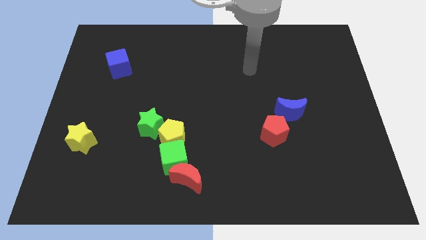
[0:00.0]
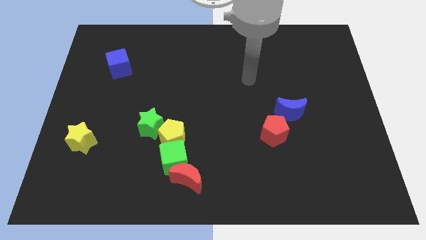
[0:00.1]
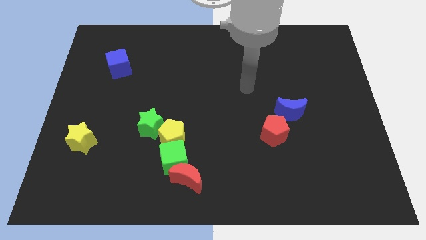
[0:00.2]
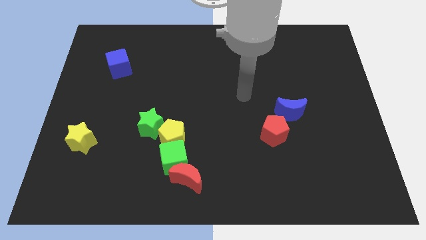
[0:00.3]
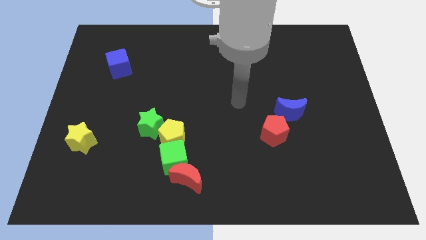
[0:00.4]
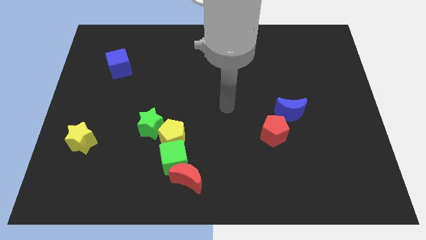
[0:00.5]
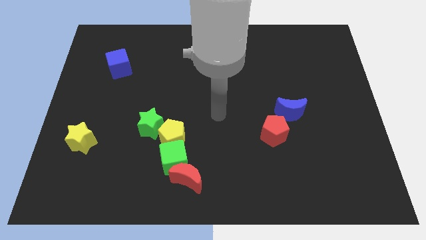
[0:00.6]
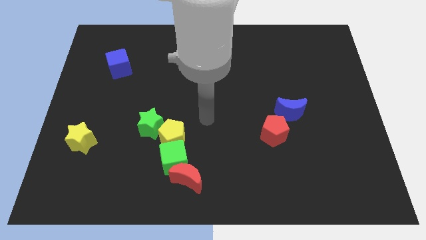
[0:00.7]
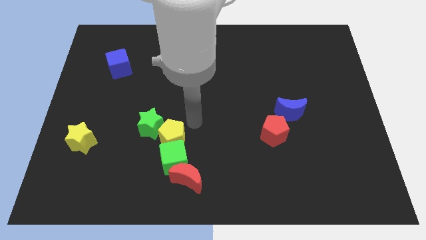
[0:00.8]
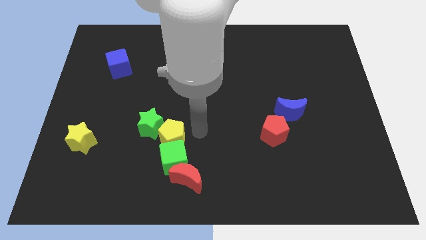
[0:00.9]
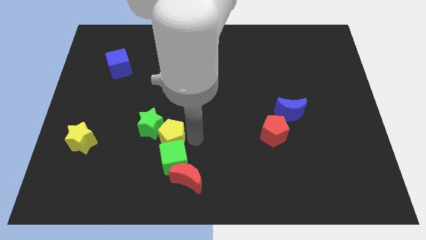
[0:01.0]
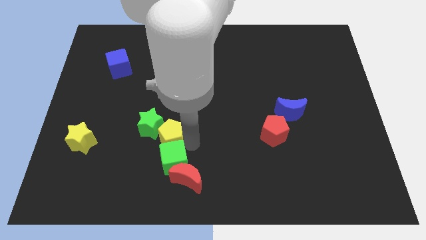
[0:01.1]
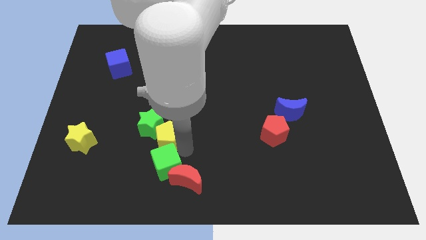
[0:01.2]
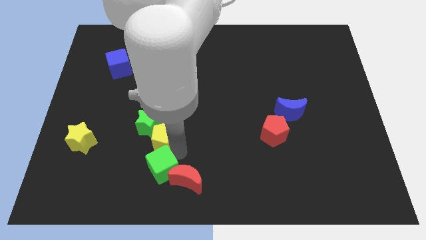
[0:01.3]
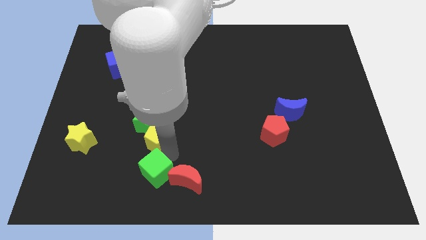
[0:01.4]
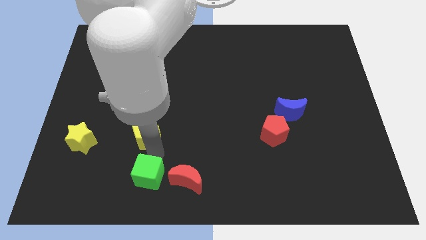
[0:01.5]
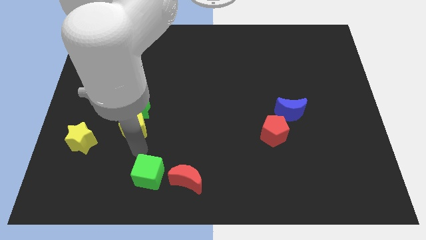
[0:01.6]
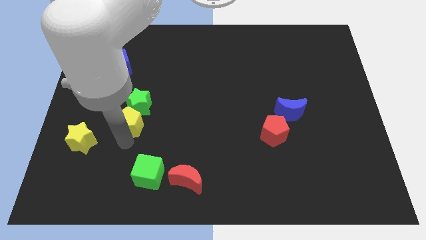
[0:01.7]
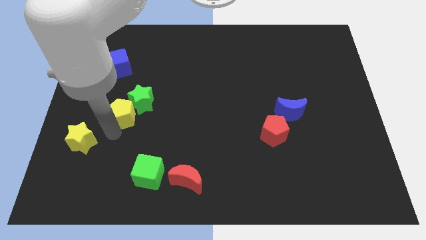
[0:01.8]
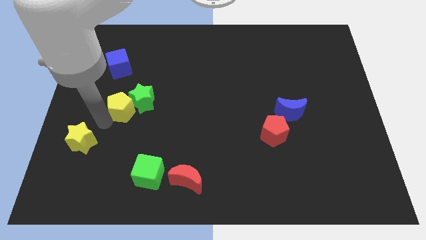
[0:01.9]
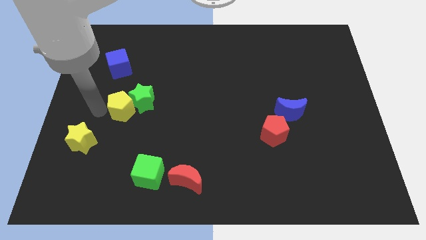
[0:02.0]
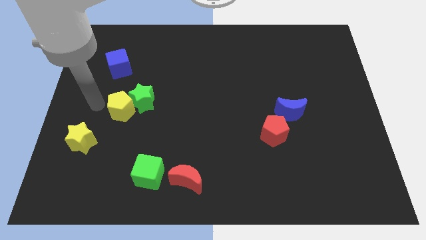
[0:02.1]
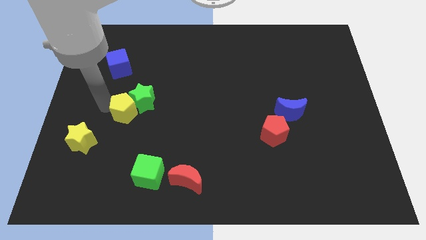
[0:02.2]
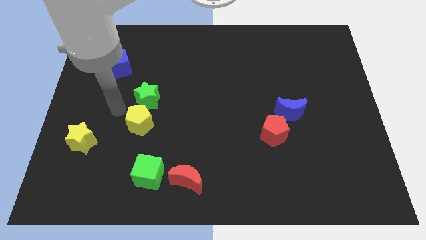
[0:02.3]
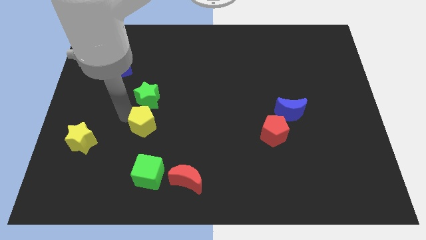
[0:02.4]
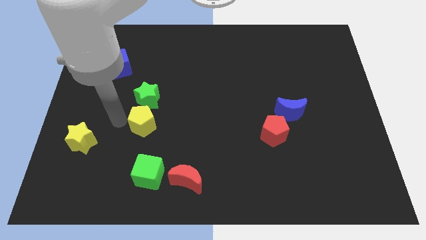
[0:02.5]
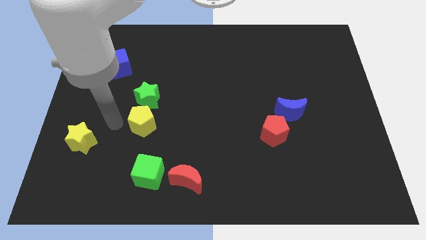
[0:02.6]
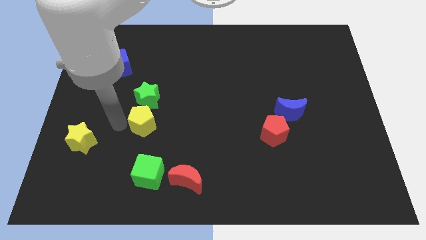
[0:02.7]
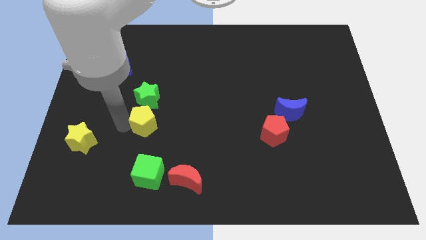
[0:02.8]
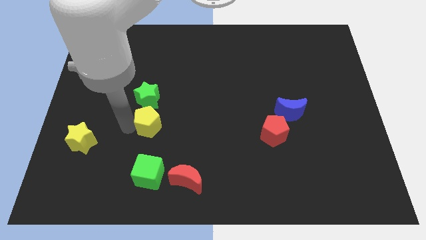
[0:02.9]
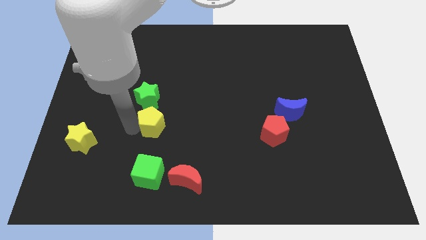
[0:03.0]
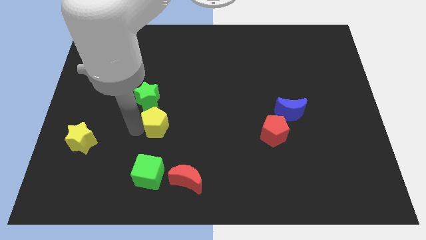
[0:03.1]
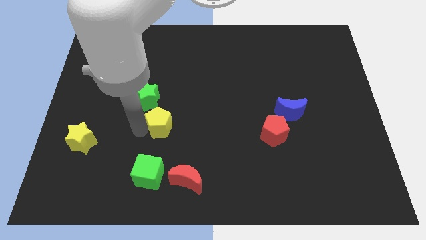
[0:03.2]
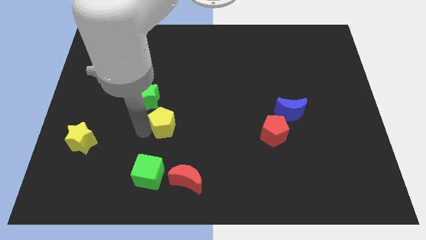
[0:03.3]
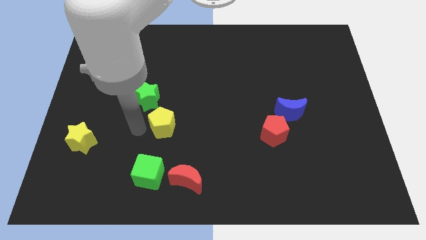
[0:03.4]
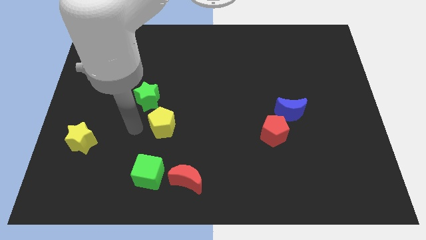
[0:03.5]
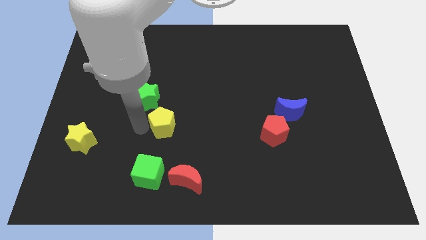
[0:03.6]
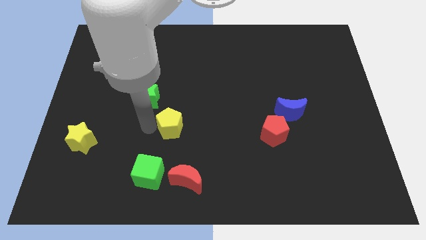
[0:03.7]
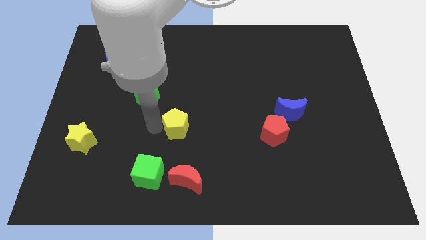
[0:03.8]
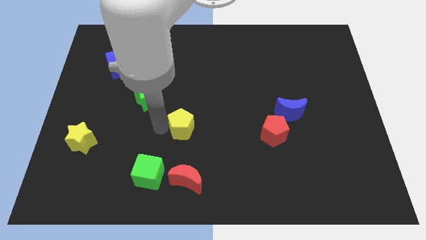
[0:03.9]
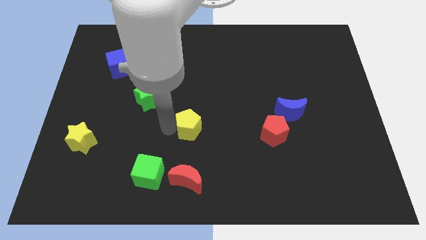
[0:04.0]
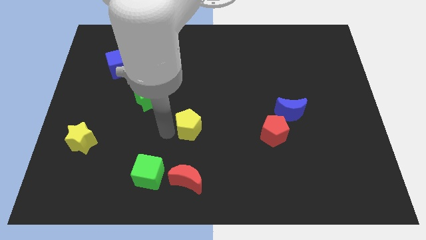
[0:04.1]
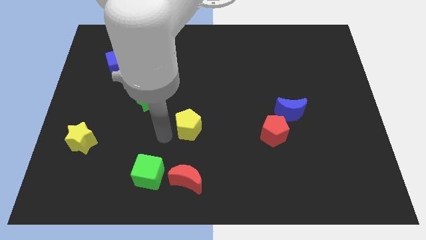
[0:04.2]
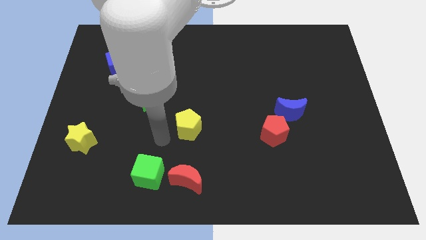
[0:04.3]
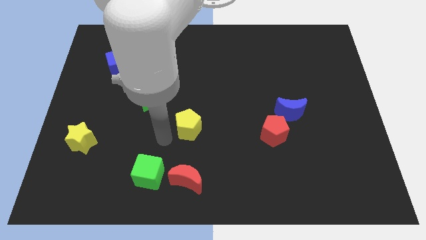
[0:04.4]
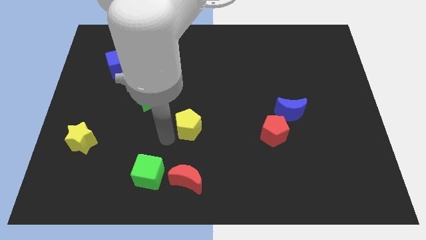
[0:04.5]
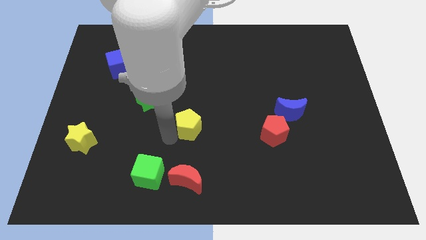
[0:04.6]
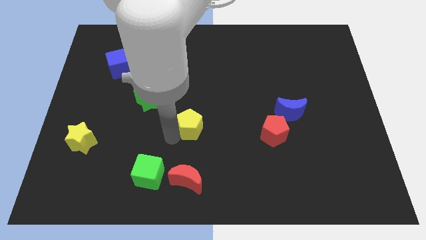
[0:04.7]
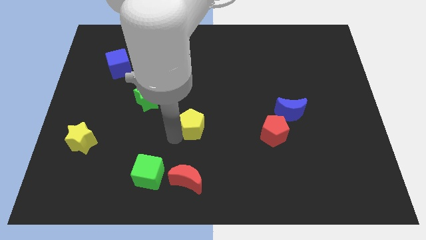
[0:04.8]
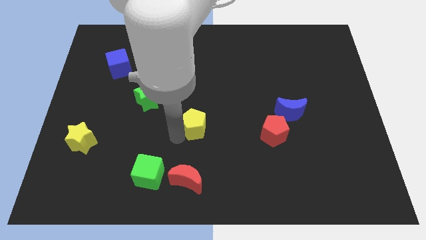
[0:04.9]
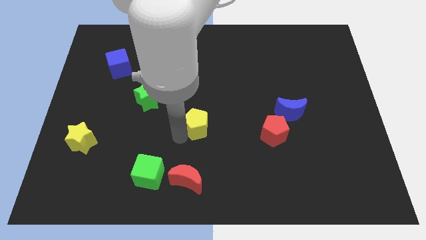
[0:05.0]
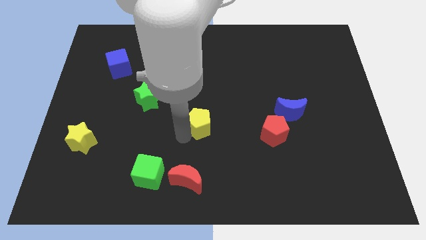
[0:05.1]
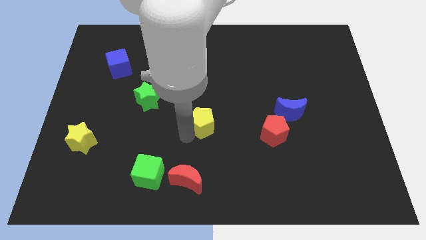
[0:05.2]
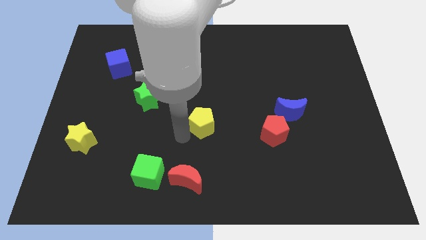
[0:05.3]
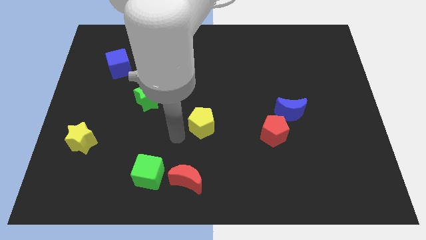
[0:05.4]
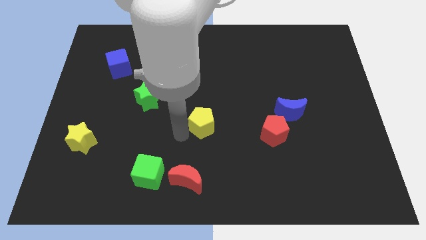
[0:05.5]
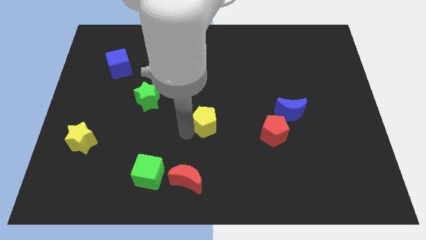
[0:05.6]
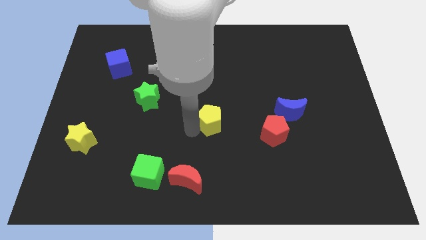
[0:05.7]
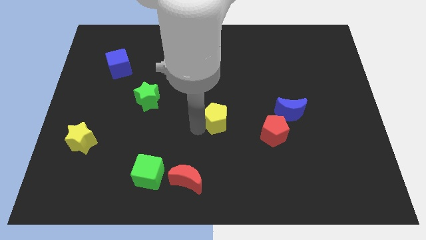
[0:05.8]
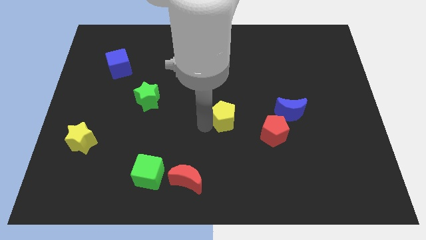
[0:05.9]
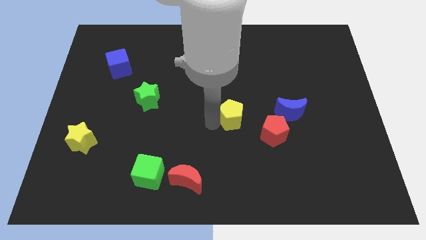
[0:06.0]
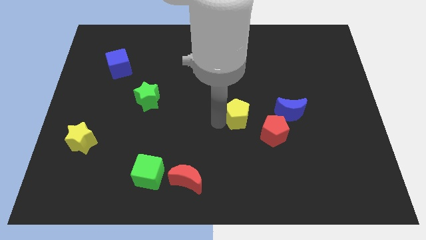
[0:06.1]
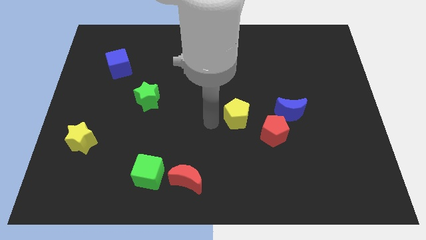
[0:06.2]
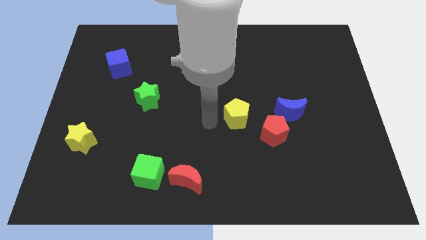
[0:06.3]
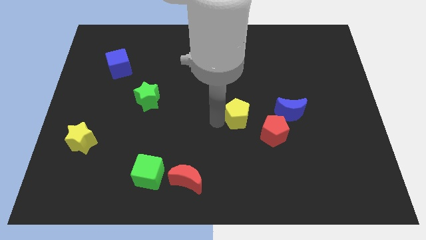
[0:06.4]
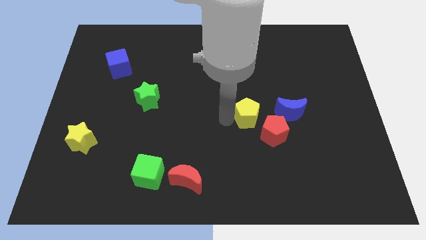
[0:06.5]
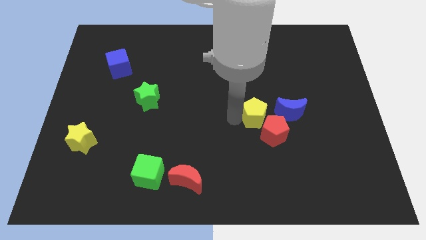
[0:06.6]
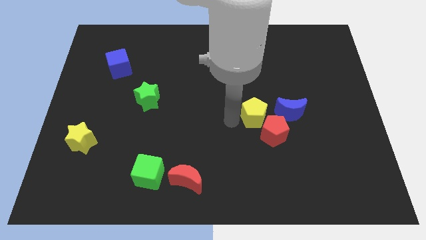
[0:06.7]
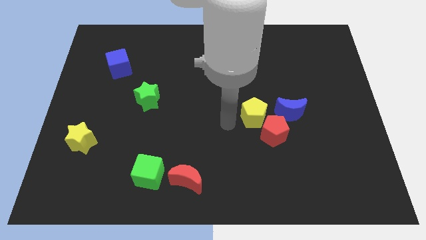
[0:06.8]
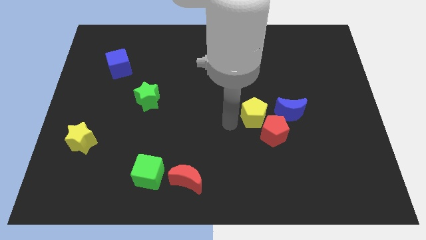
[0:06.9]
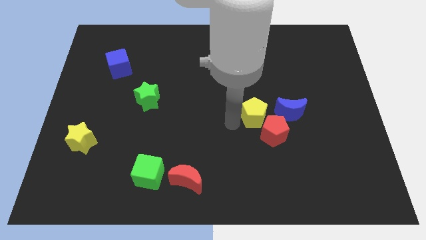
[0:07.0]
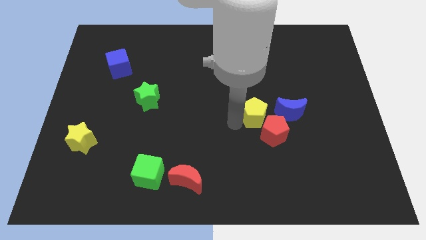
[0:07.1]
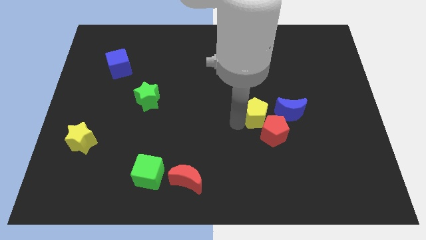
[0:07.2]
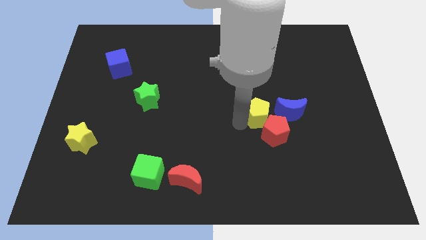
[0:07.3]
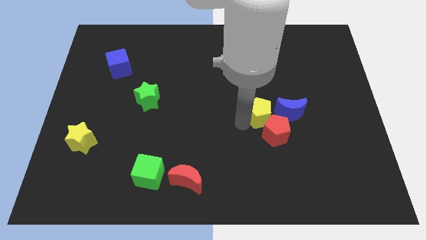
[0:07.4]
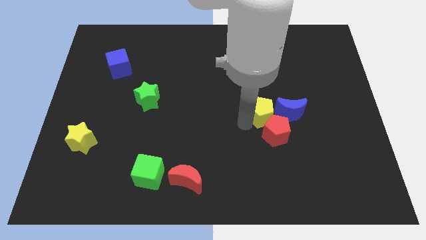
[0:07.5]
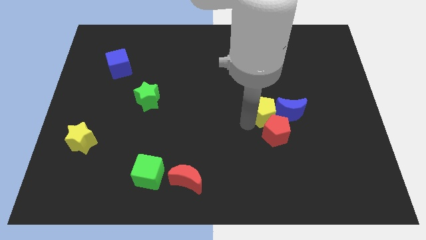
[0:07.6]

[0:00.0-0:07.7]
put the yellow pentagon to the blue moon
